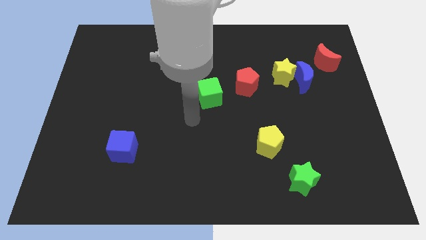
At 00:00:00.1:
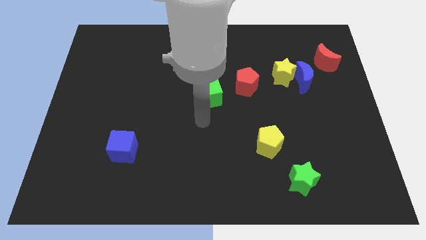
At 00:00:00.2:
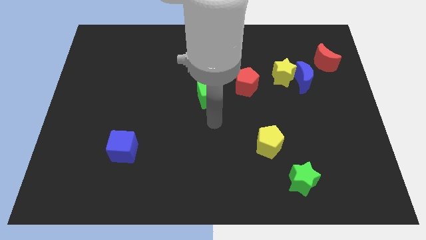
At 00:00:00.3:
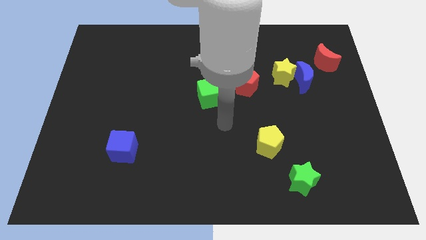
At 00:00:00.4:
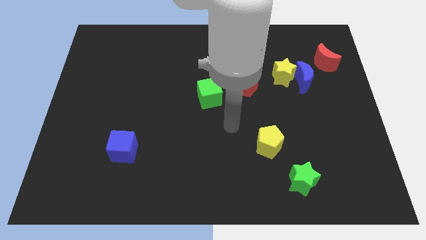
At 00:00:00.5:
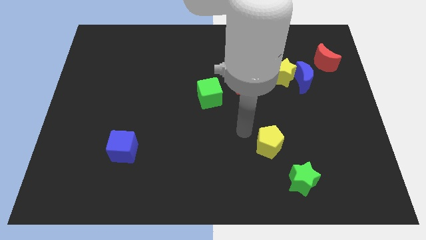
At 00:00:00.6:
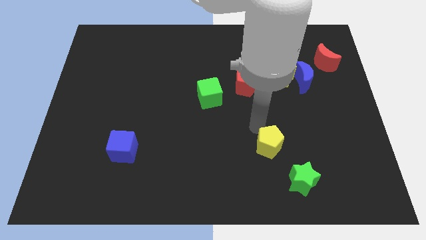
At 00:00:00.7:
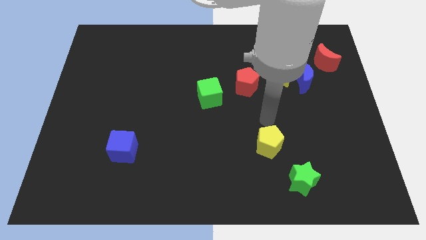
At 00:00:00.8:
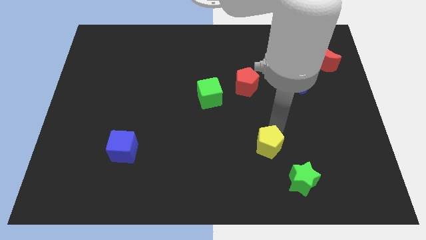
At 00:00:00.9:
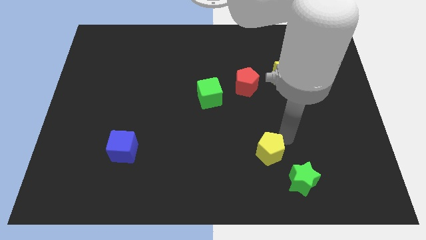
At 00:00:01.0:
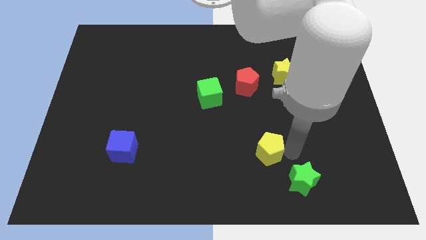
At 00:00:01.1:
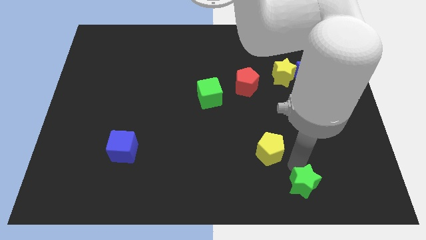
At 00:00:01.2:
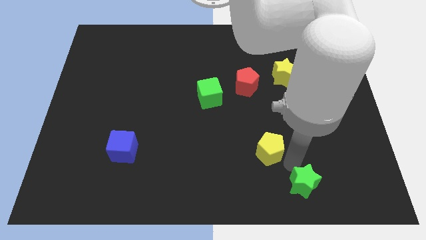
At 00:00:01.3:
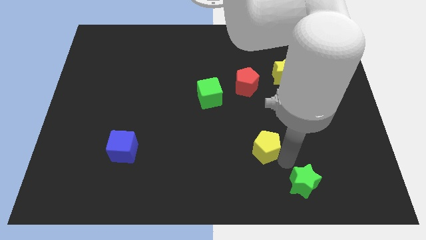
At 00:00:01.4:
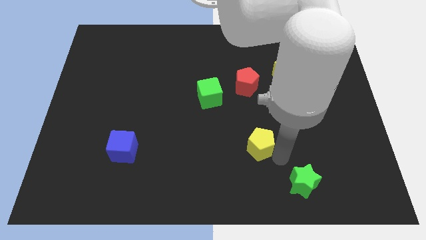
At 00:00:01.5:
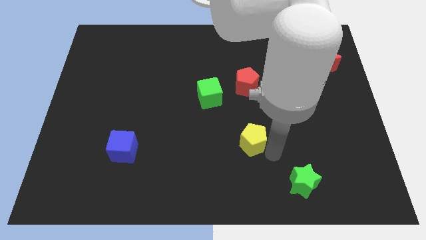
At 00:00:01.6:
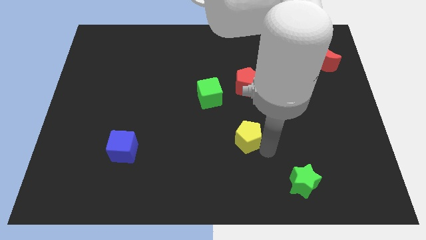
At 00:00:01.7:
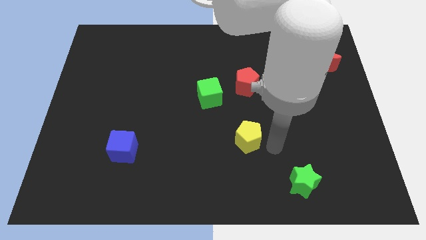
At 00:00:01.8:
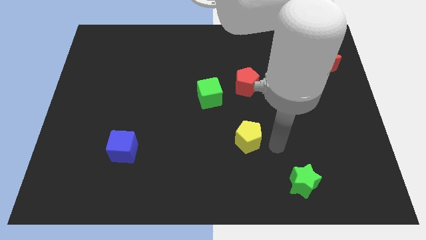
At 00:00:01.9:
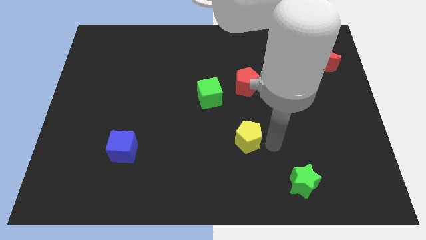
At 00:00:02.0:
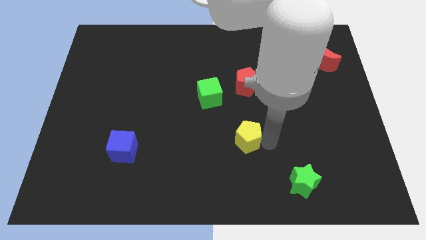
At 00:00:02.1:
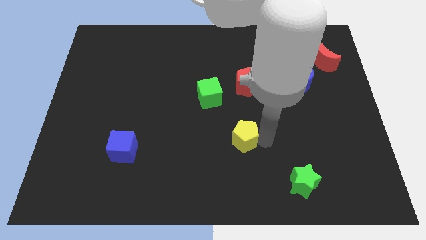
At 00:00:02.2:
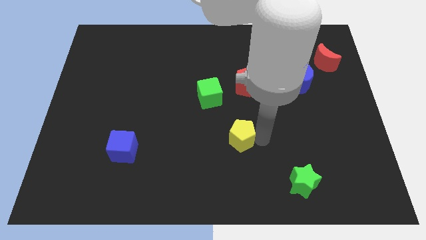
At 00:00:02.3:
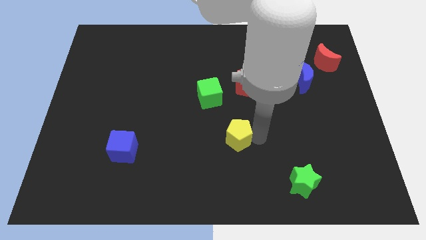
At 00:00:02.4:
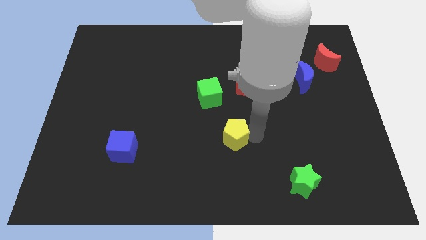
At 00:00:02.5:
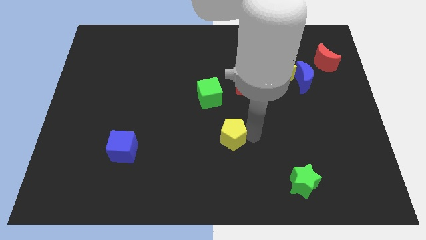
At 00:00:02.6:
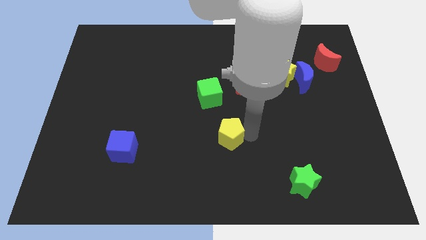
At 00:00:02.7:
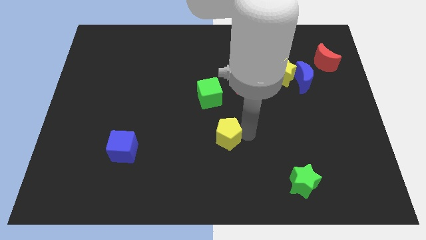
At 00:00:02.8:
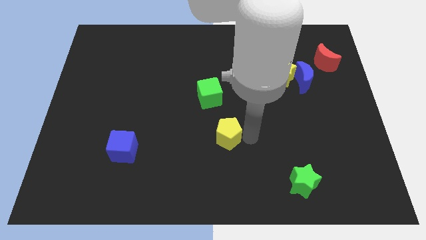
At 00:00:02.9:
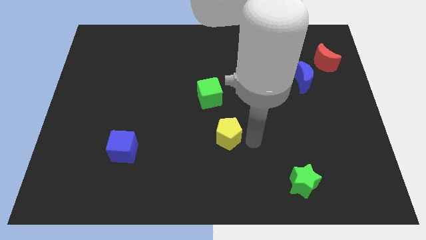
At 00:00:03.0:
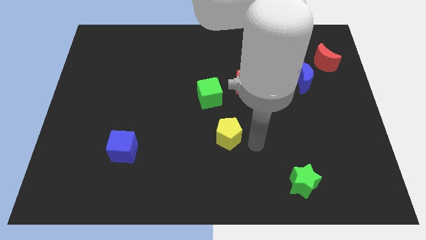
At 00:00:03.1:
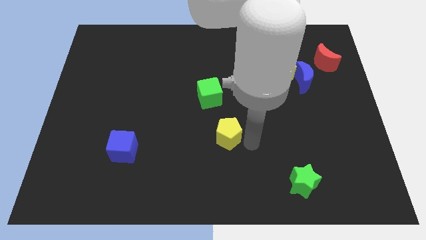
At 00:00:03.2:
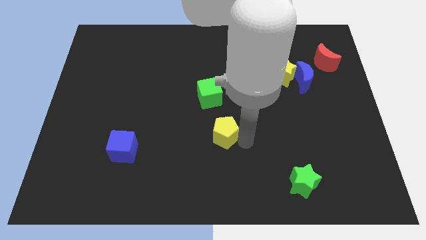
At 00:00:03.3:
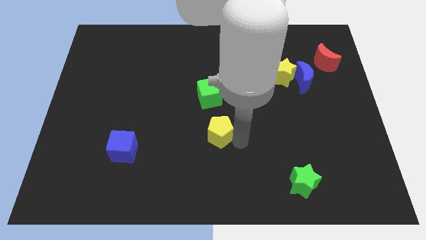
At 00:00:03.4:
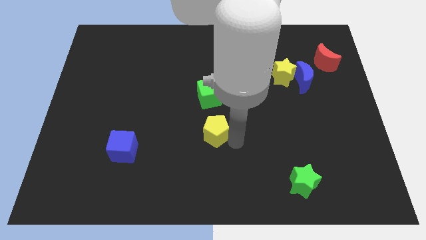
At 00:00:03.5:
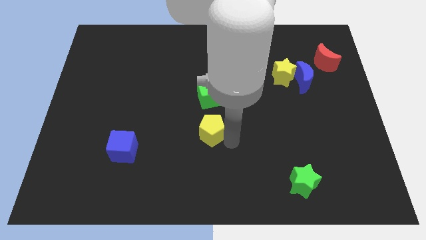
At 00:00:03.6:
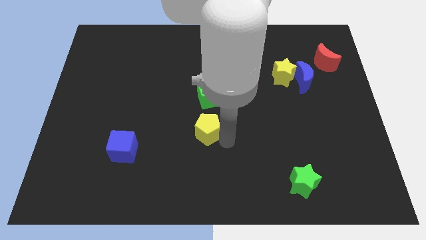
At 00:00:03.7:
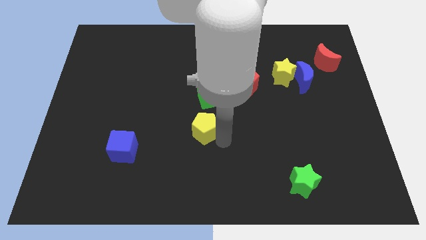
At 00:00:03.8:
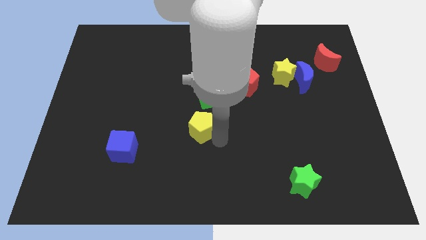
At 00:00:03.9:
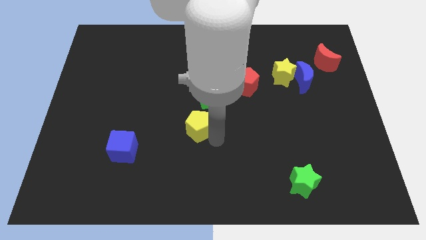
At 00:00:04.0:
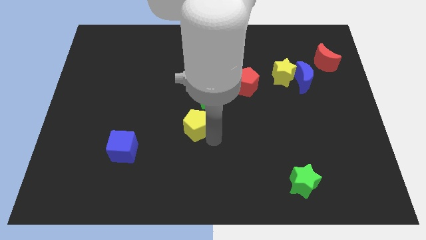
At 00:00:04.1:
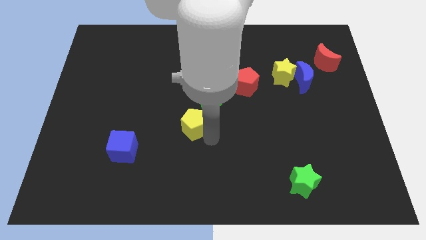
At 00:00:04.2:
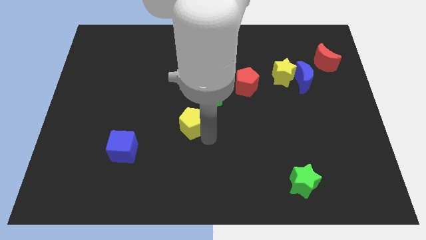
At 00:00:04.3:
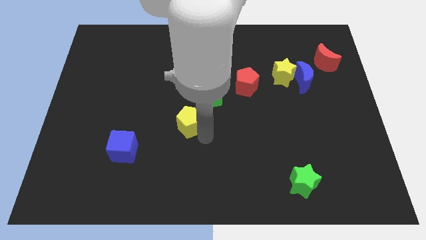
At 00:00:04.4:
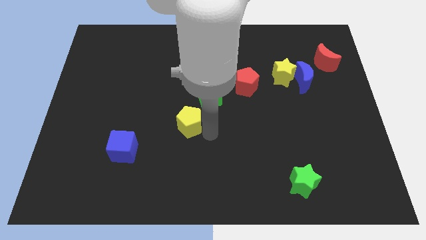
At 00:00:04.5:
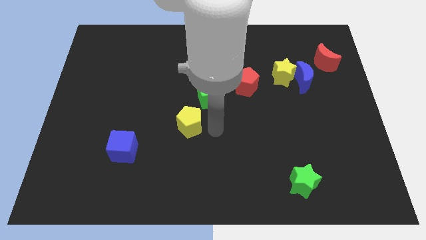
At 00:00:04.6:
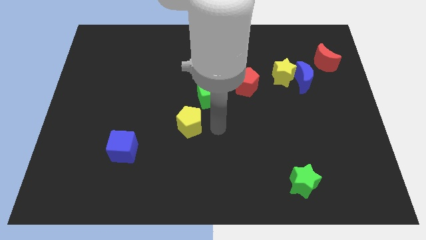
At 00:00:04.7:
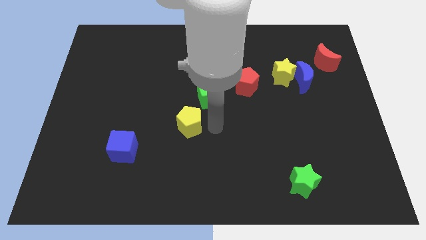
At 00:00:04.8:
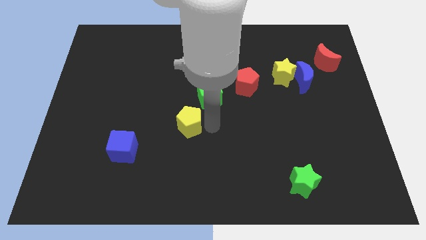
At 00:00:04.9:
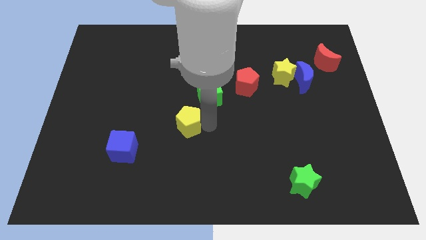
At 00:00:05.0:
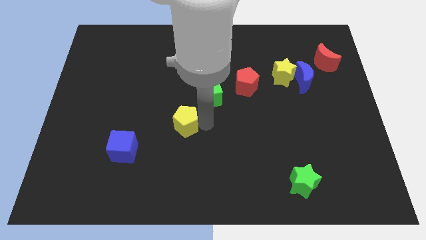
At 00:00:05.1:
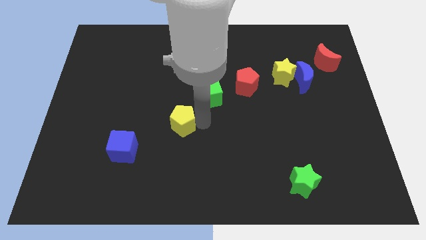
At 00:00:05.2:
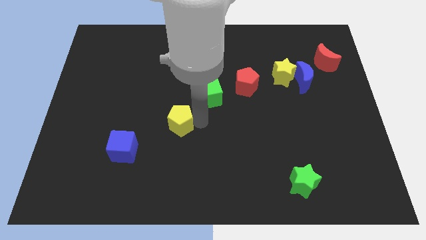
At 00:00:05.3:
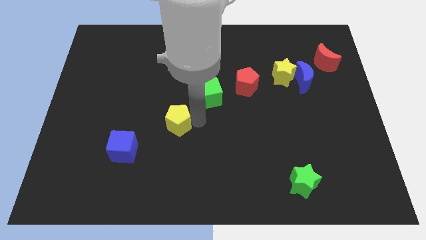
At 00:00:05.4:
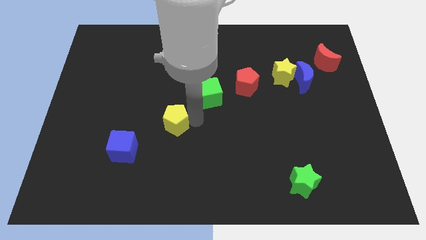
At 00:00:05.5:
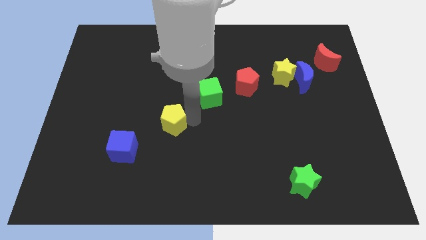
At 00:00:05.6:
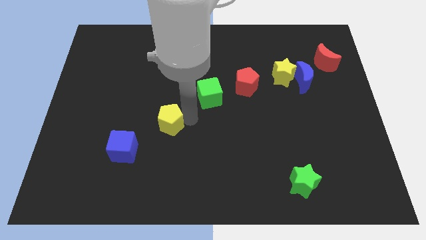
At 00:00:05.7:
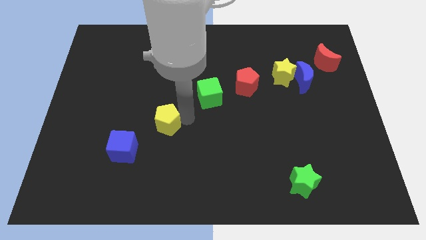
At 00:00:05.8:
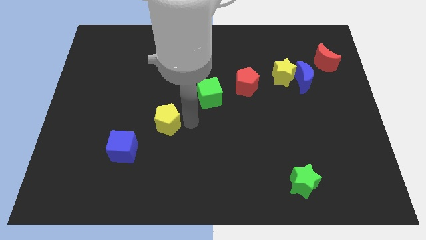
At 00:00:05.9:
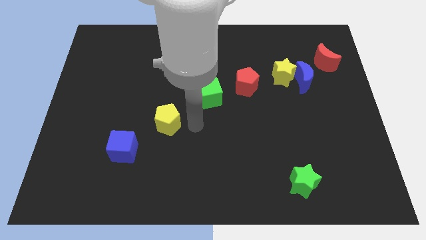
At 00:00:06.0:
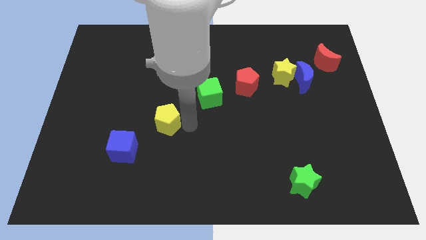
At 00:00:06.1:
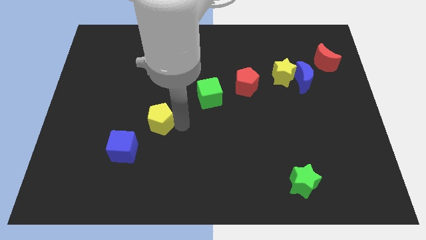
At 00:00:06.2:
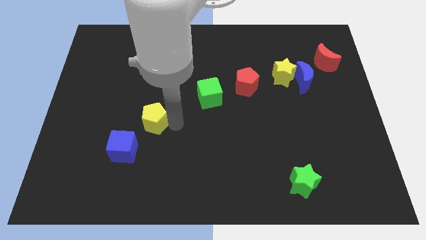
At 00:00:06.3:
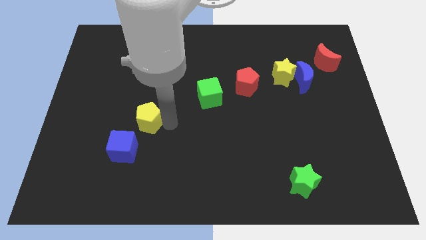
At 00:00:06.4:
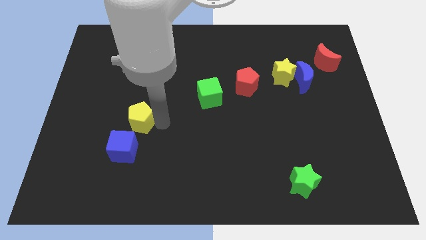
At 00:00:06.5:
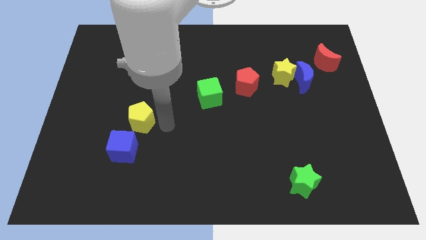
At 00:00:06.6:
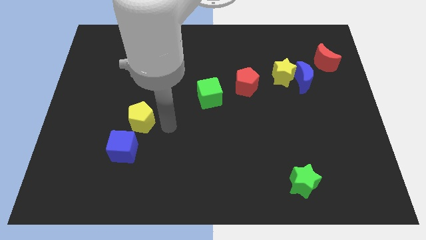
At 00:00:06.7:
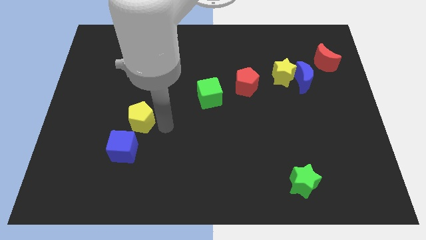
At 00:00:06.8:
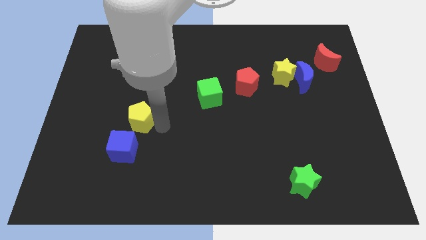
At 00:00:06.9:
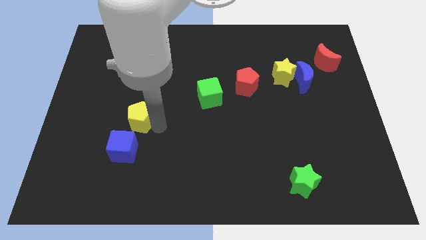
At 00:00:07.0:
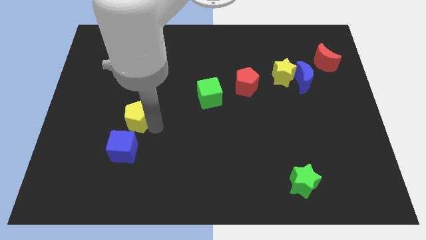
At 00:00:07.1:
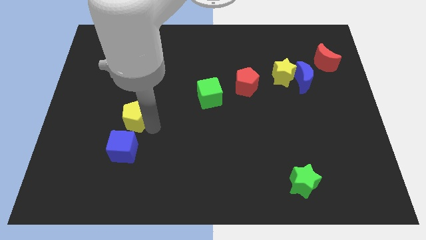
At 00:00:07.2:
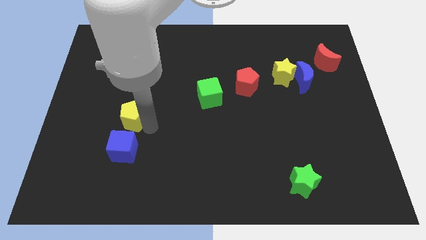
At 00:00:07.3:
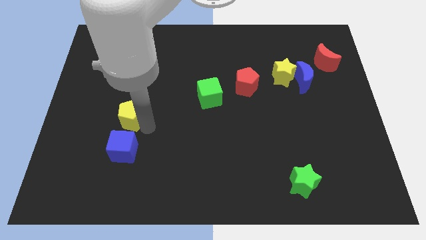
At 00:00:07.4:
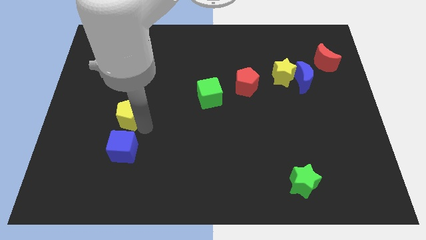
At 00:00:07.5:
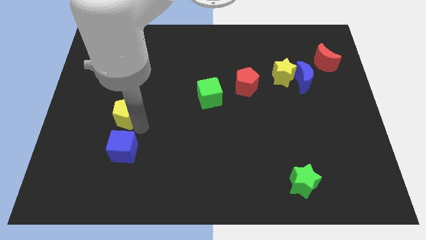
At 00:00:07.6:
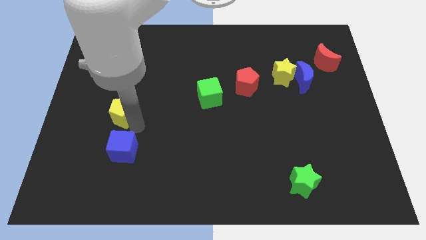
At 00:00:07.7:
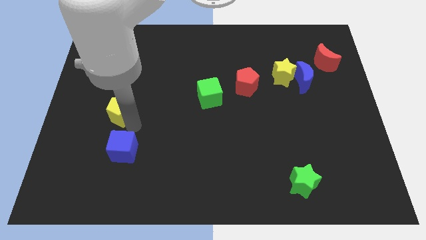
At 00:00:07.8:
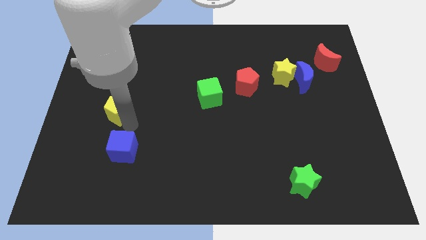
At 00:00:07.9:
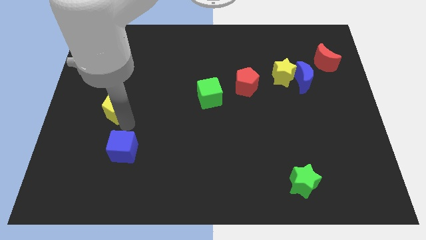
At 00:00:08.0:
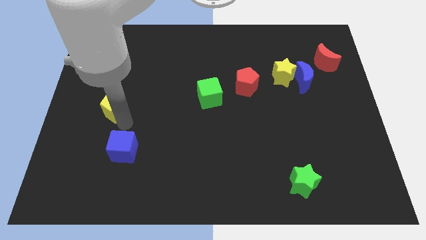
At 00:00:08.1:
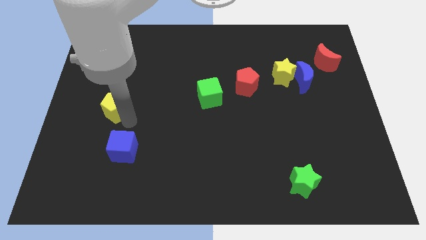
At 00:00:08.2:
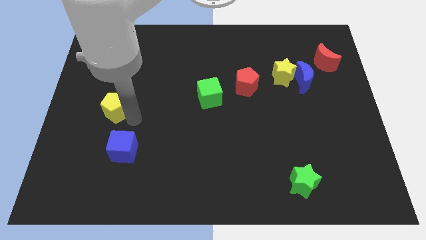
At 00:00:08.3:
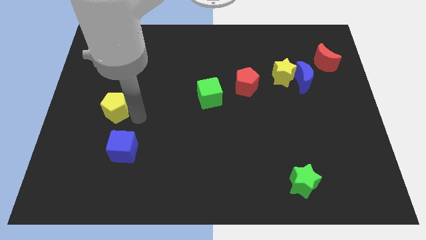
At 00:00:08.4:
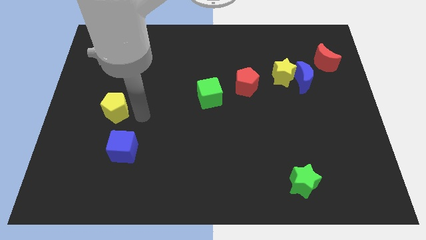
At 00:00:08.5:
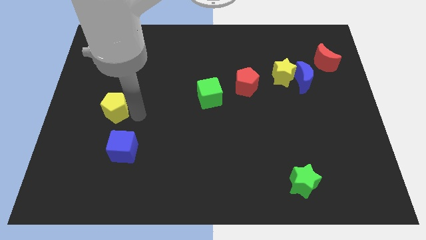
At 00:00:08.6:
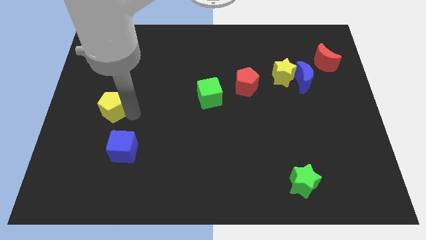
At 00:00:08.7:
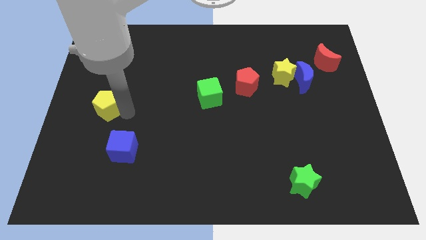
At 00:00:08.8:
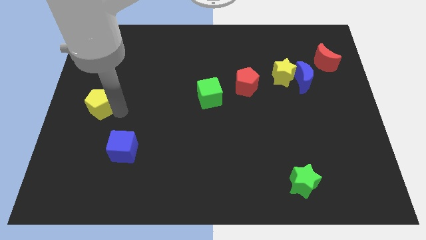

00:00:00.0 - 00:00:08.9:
move the yellow pentagon to the left side
